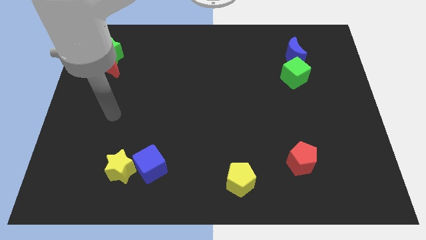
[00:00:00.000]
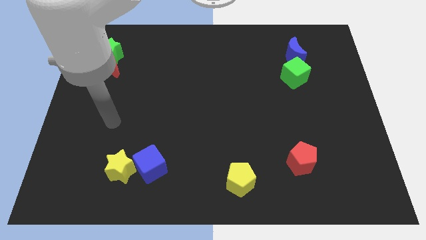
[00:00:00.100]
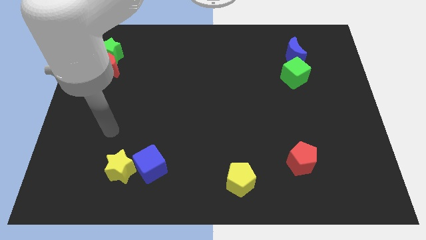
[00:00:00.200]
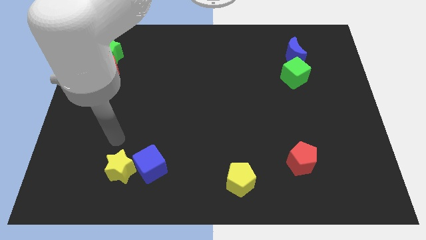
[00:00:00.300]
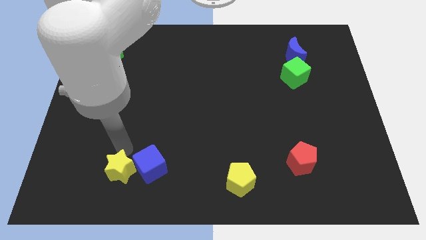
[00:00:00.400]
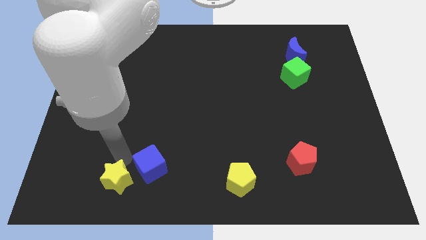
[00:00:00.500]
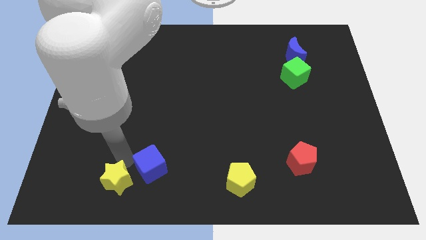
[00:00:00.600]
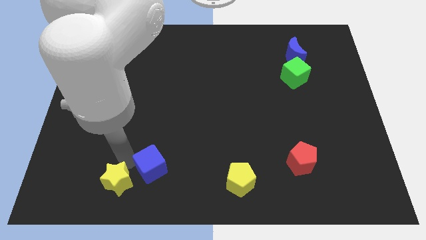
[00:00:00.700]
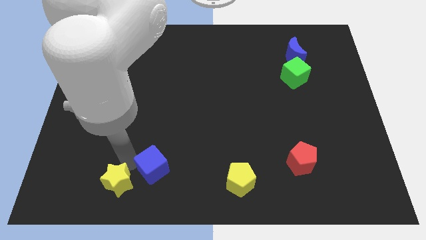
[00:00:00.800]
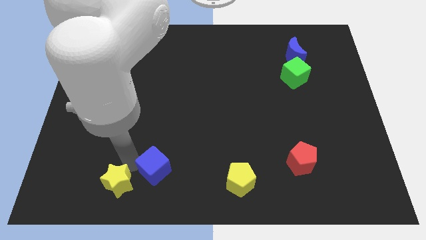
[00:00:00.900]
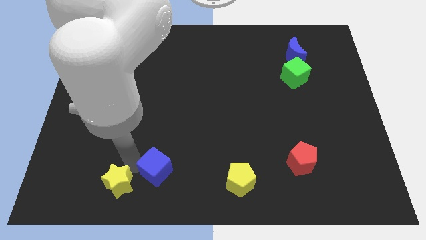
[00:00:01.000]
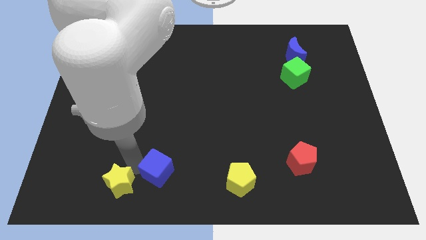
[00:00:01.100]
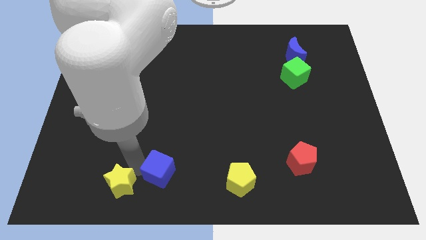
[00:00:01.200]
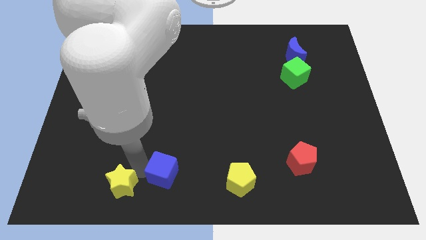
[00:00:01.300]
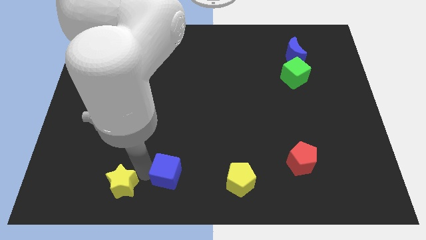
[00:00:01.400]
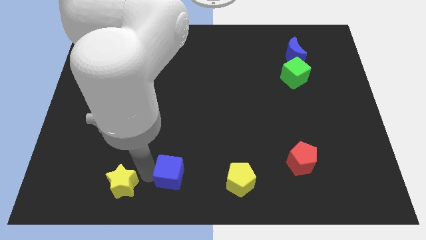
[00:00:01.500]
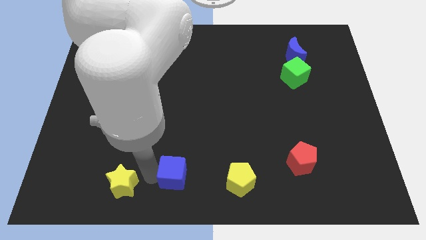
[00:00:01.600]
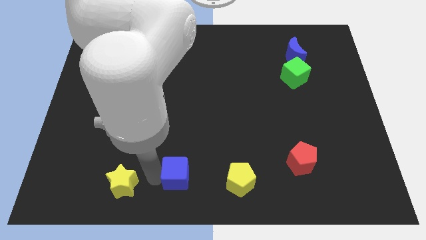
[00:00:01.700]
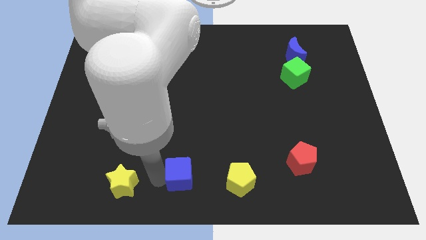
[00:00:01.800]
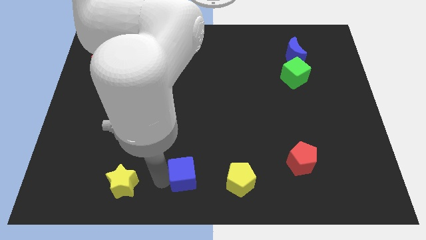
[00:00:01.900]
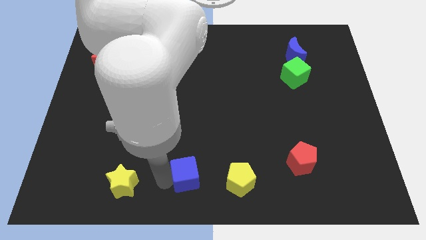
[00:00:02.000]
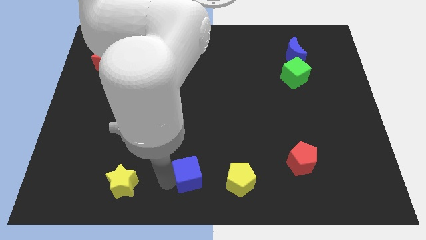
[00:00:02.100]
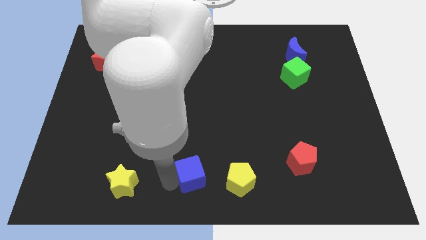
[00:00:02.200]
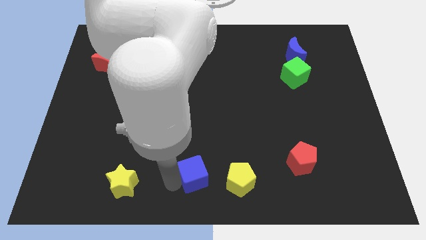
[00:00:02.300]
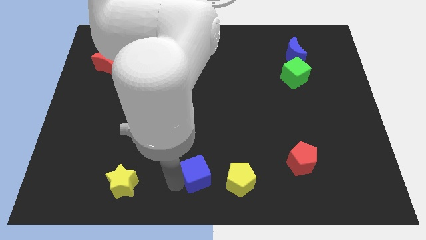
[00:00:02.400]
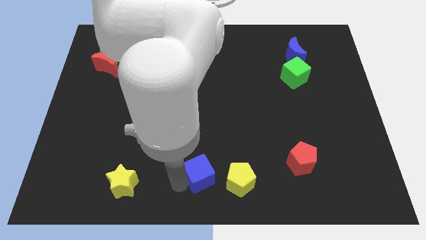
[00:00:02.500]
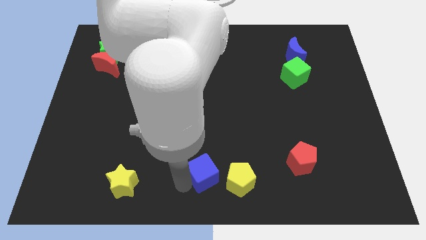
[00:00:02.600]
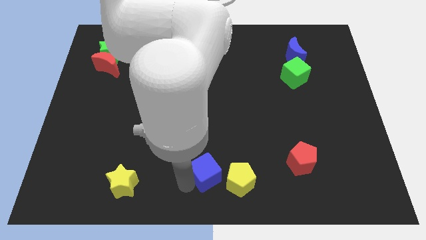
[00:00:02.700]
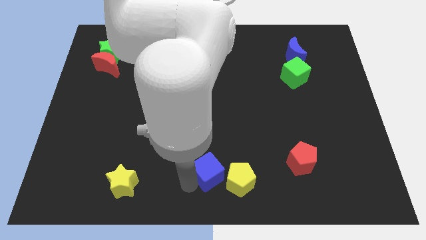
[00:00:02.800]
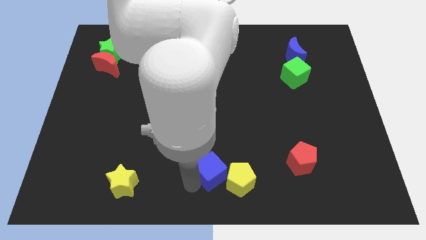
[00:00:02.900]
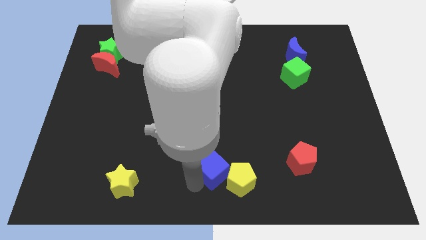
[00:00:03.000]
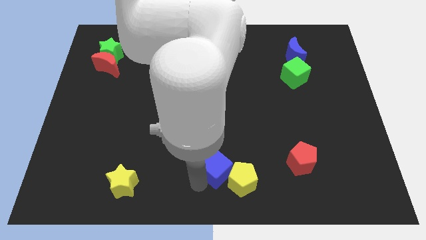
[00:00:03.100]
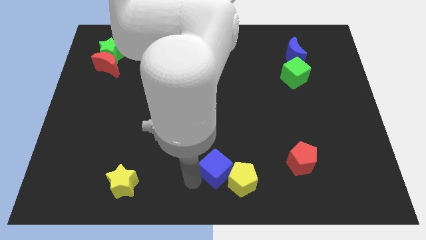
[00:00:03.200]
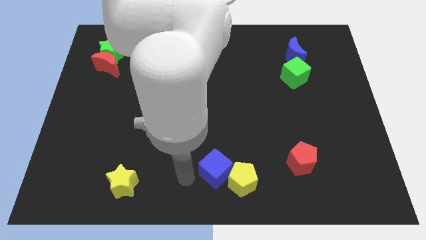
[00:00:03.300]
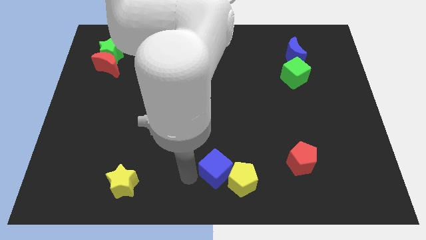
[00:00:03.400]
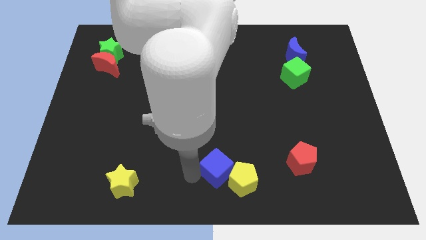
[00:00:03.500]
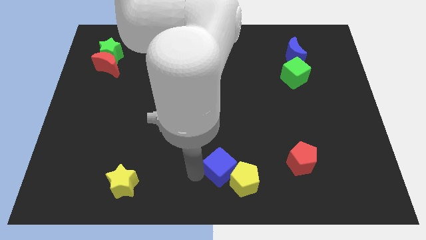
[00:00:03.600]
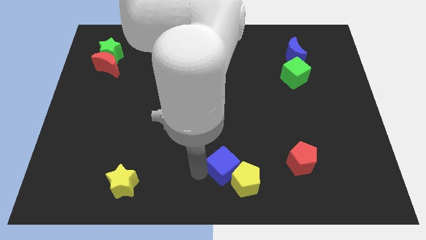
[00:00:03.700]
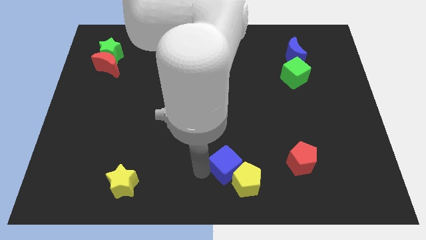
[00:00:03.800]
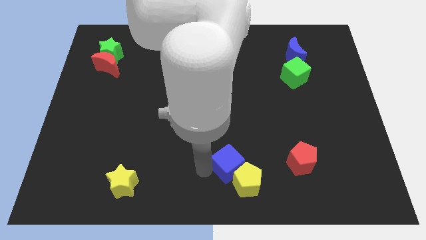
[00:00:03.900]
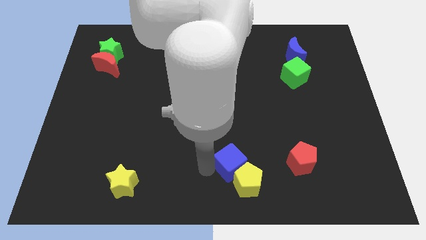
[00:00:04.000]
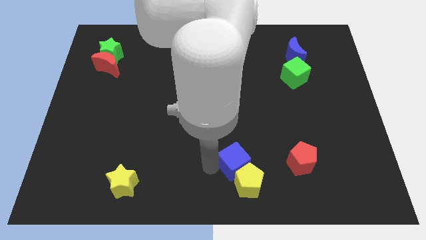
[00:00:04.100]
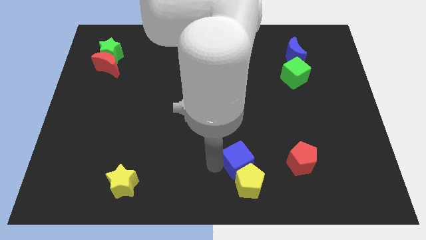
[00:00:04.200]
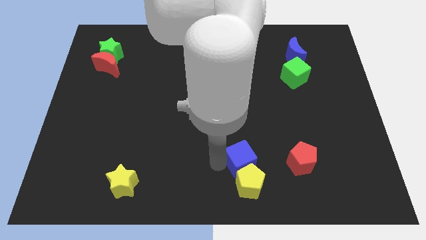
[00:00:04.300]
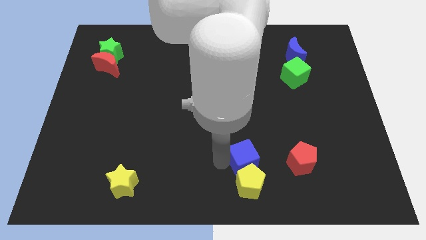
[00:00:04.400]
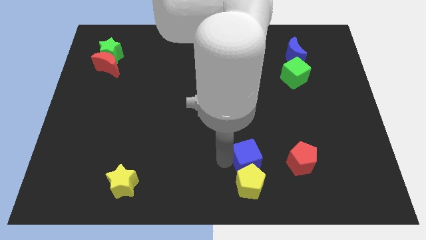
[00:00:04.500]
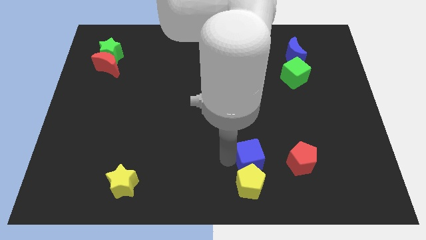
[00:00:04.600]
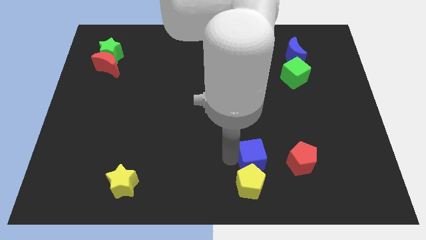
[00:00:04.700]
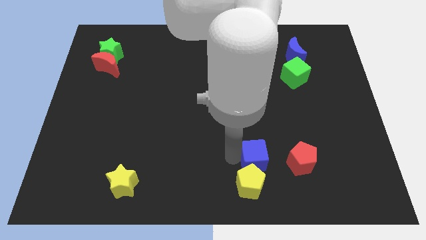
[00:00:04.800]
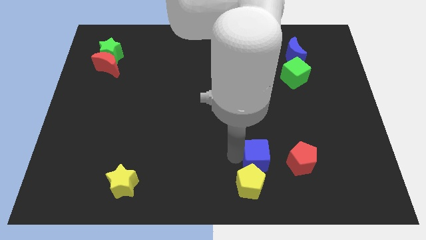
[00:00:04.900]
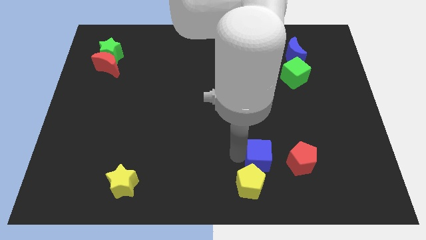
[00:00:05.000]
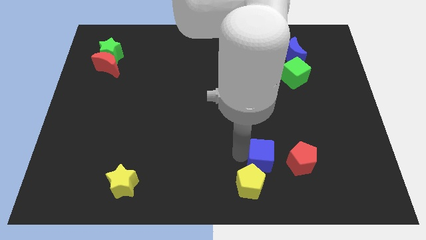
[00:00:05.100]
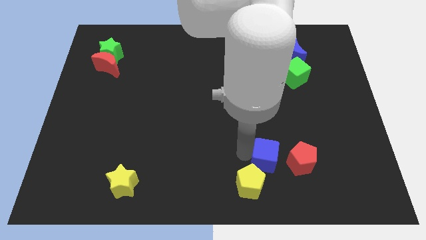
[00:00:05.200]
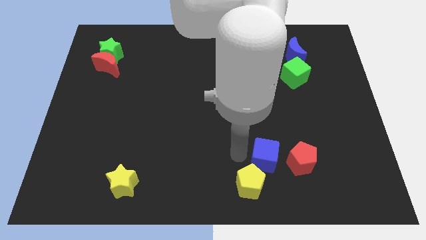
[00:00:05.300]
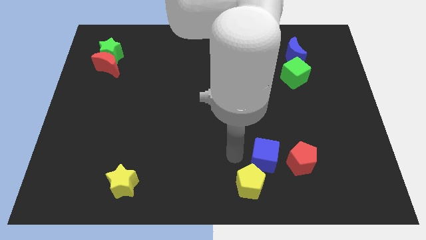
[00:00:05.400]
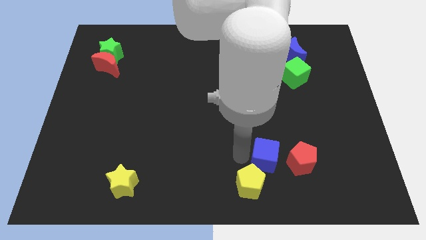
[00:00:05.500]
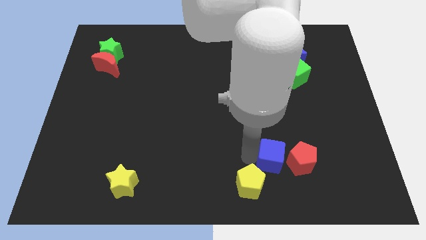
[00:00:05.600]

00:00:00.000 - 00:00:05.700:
slide the blue cube to the red pentagon
